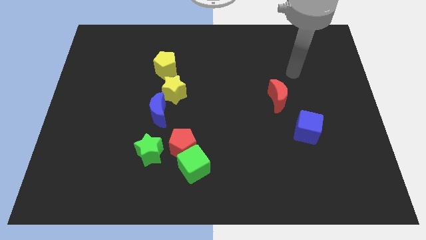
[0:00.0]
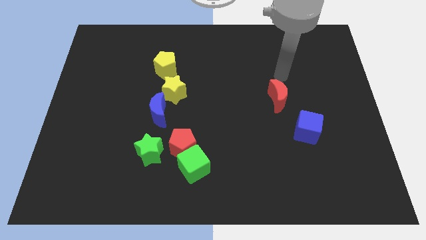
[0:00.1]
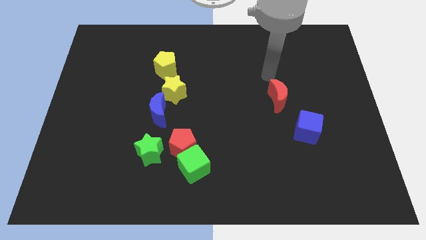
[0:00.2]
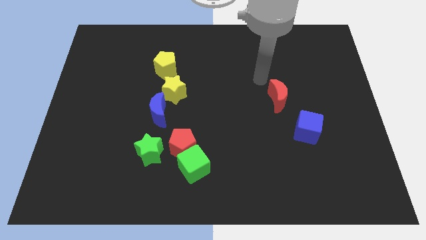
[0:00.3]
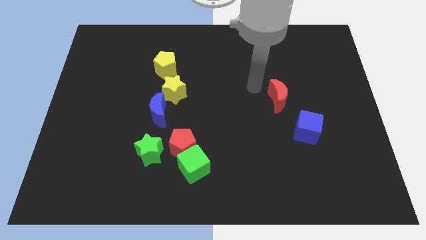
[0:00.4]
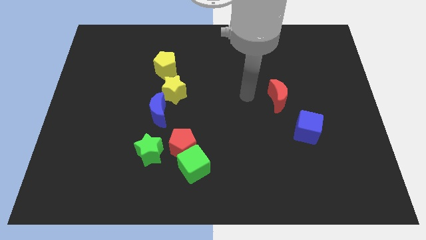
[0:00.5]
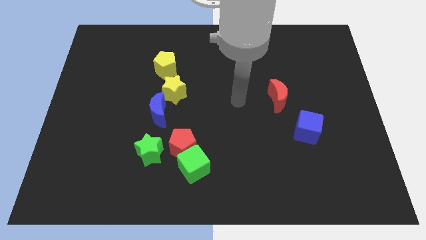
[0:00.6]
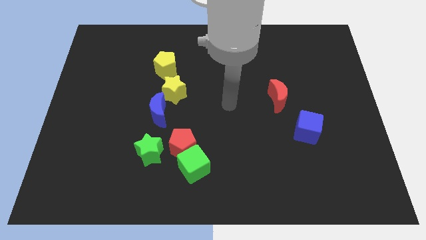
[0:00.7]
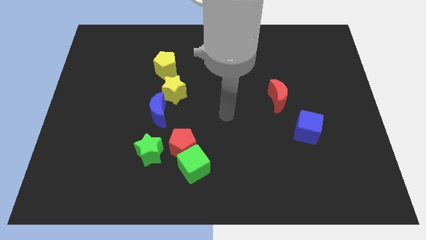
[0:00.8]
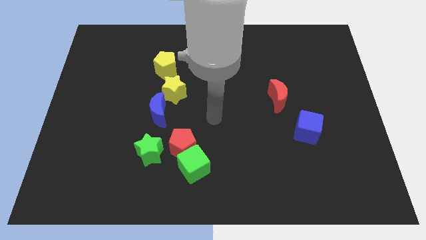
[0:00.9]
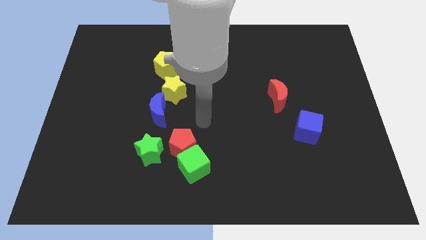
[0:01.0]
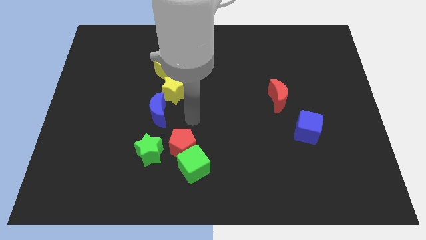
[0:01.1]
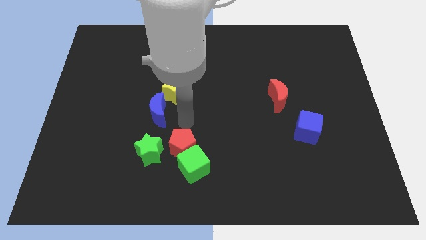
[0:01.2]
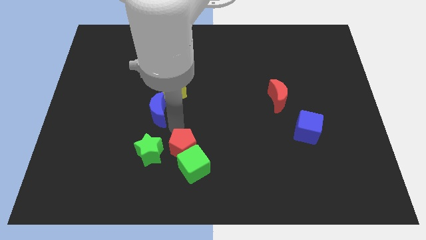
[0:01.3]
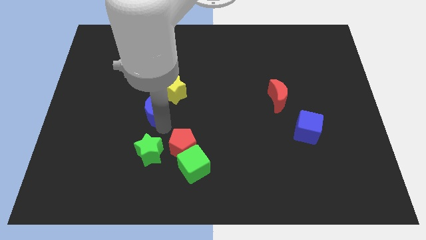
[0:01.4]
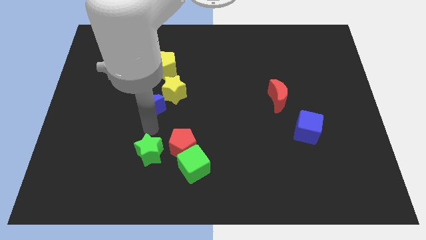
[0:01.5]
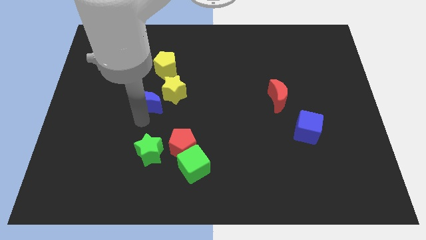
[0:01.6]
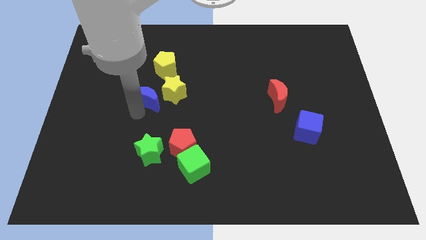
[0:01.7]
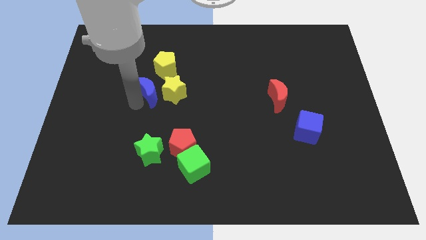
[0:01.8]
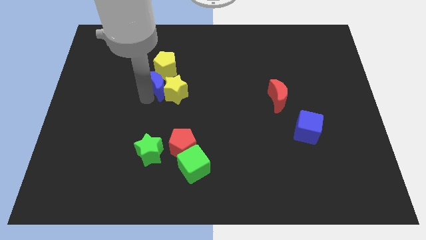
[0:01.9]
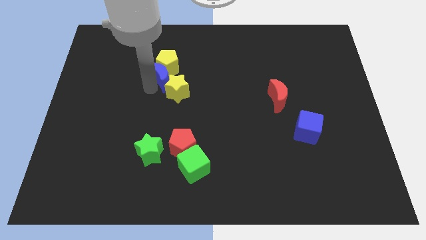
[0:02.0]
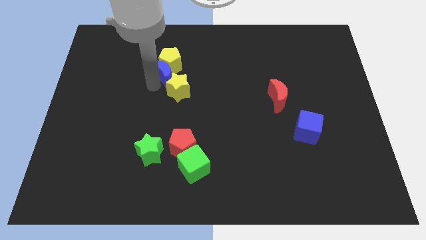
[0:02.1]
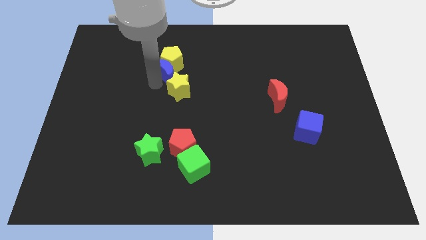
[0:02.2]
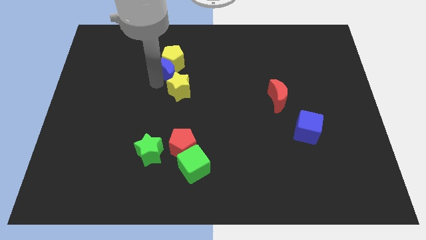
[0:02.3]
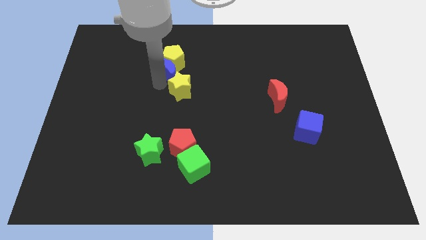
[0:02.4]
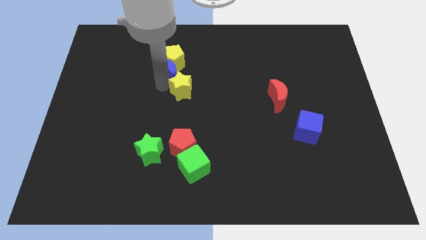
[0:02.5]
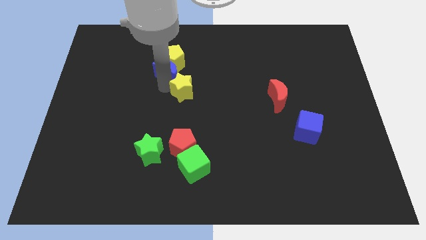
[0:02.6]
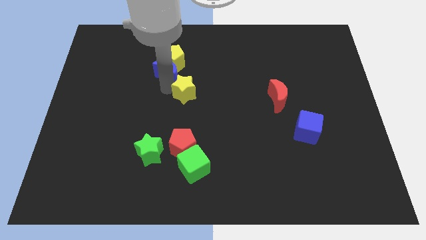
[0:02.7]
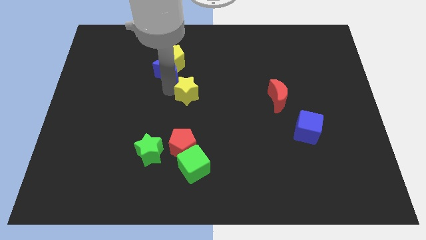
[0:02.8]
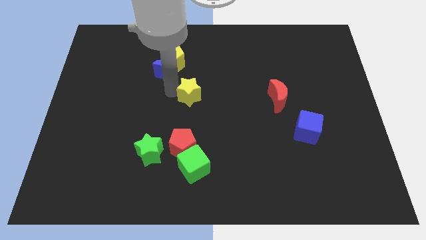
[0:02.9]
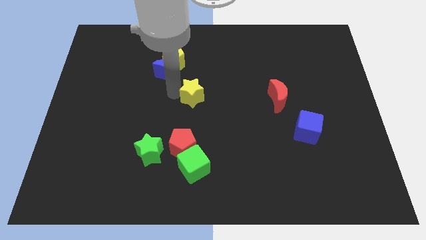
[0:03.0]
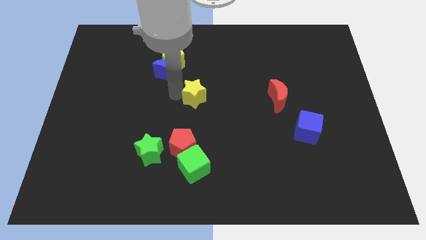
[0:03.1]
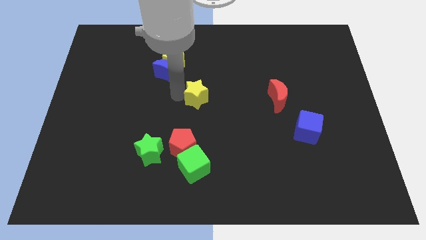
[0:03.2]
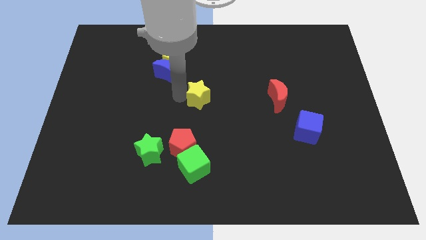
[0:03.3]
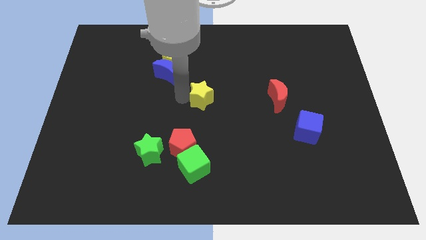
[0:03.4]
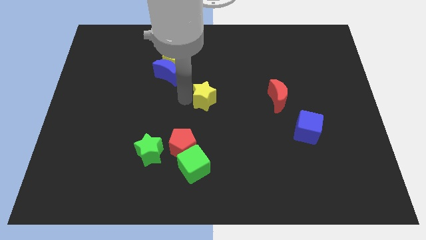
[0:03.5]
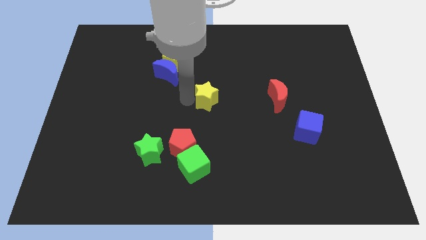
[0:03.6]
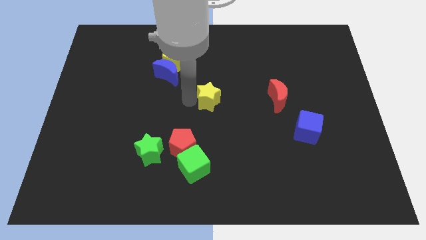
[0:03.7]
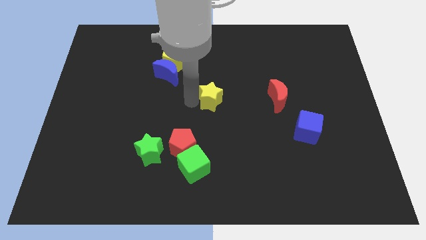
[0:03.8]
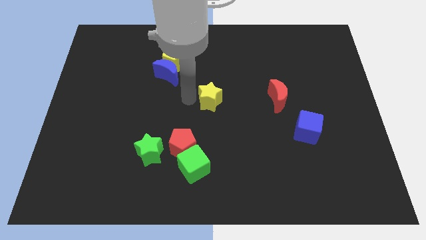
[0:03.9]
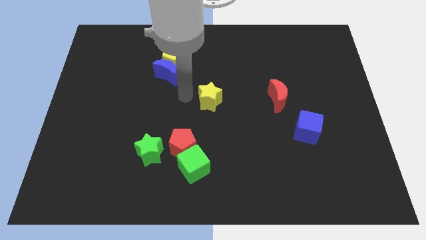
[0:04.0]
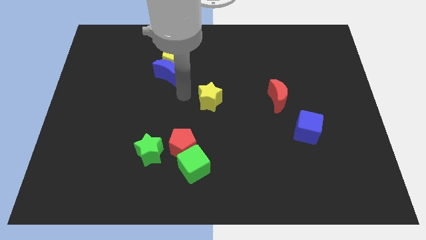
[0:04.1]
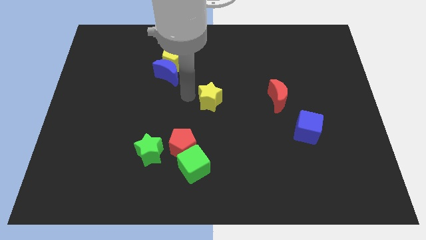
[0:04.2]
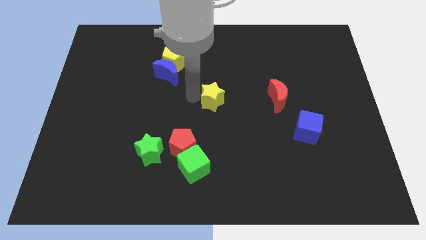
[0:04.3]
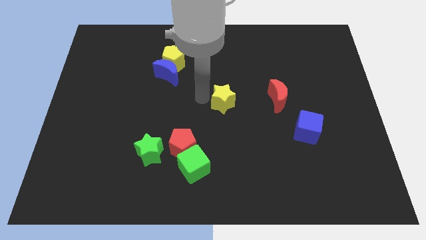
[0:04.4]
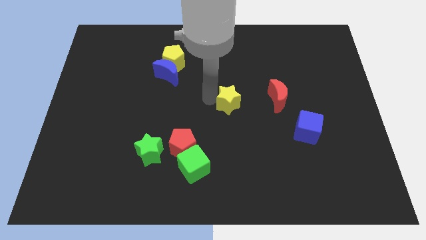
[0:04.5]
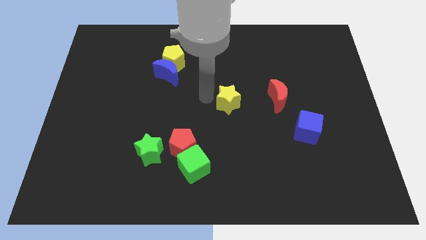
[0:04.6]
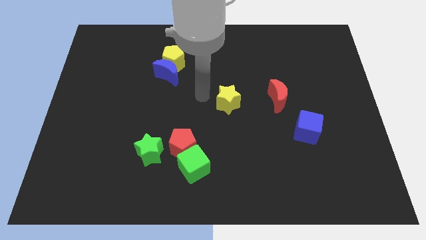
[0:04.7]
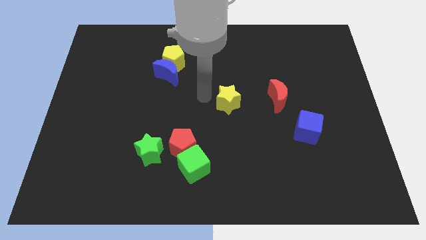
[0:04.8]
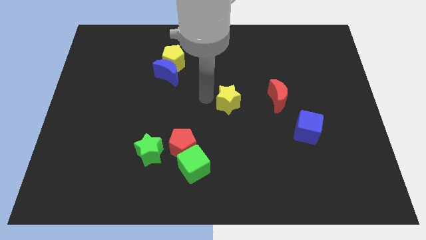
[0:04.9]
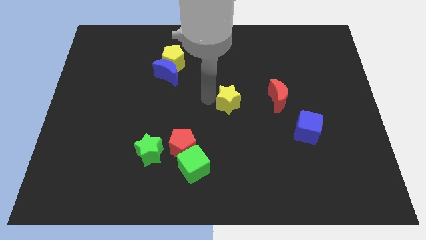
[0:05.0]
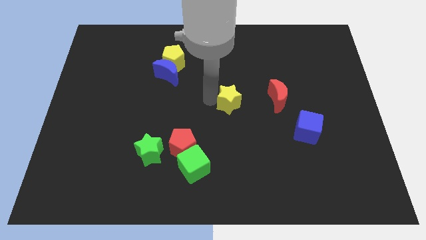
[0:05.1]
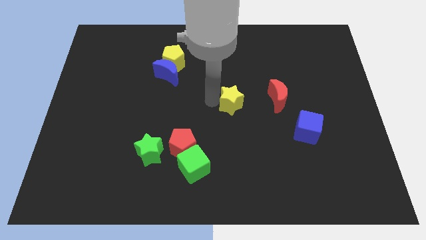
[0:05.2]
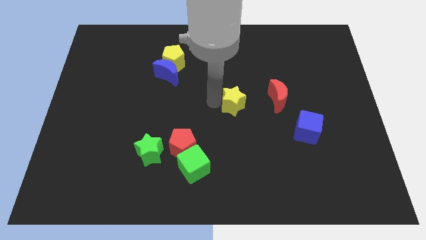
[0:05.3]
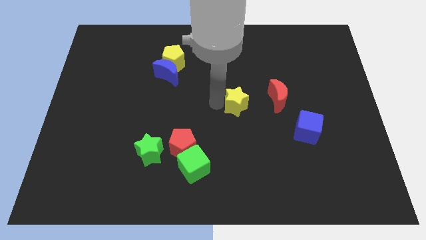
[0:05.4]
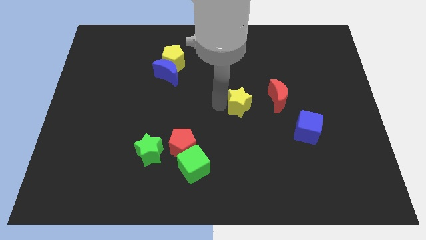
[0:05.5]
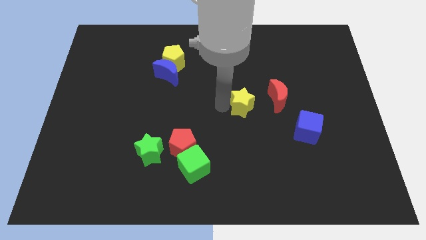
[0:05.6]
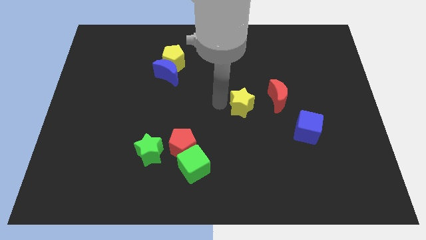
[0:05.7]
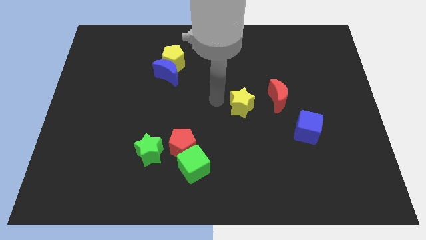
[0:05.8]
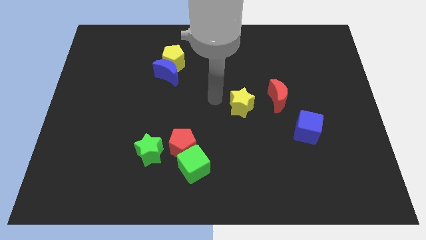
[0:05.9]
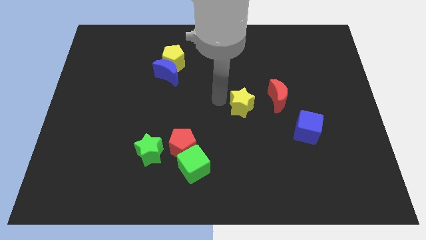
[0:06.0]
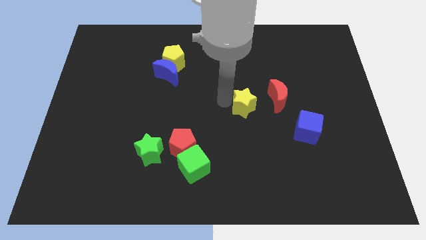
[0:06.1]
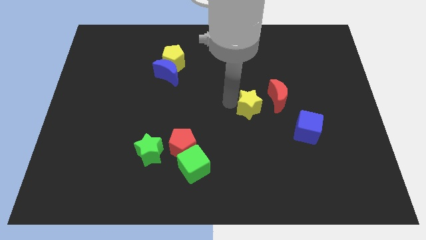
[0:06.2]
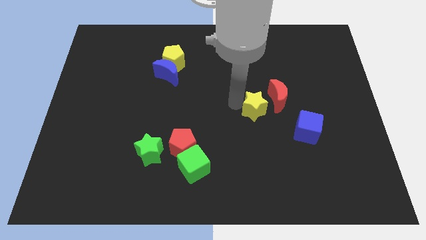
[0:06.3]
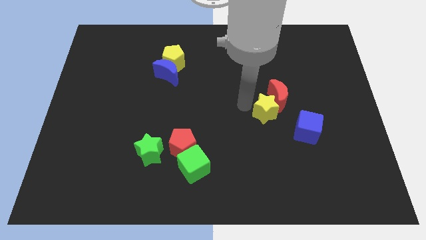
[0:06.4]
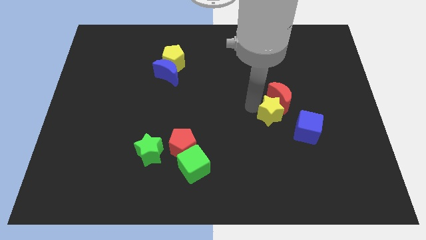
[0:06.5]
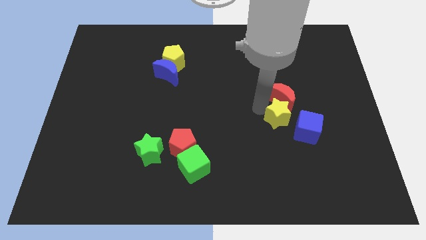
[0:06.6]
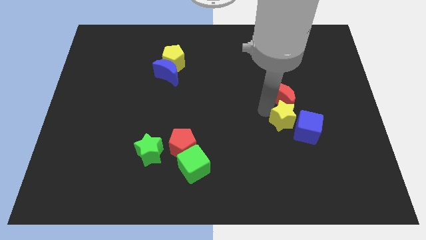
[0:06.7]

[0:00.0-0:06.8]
push the yellow star next to the blue cube

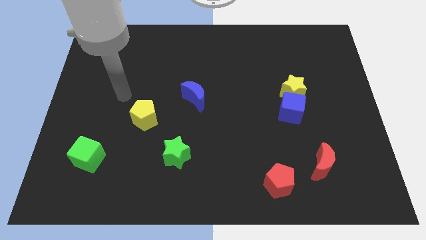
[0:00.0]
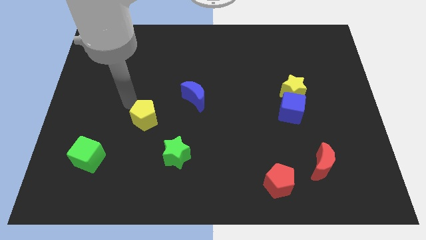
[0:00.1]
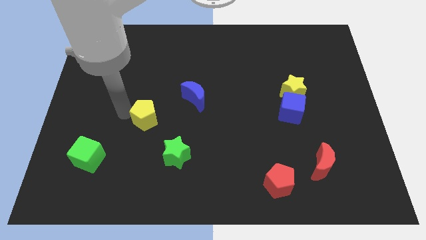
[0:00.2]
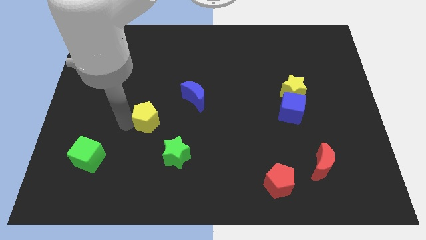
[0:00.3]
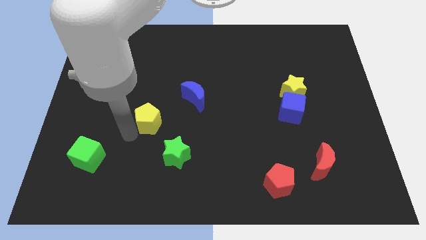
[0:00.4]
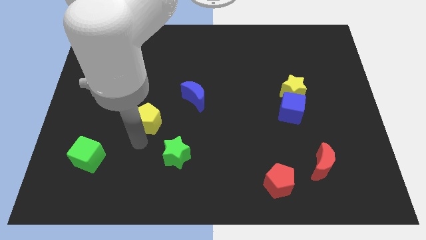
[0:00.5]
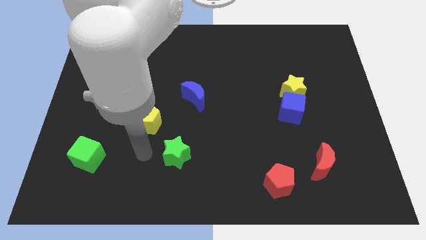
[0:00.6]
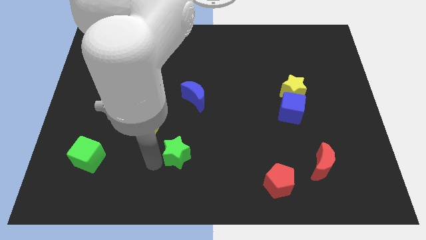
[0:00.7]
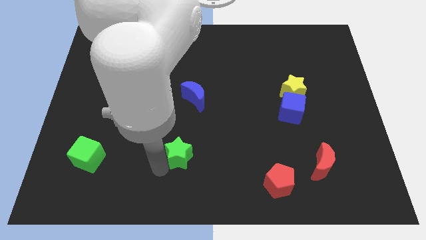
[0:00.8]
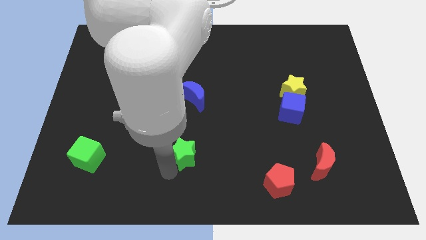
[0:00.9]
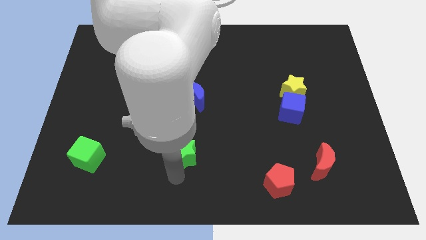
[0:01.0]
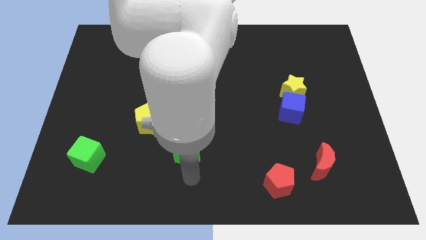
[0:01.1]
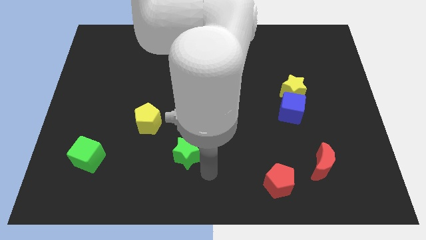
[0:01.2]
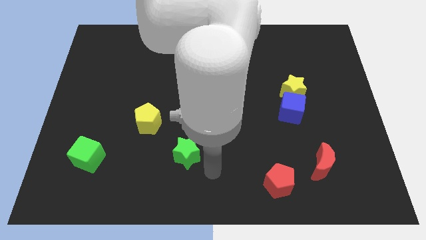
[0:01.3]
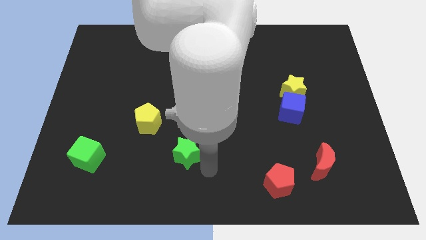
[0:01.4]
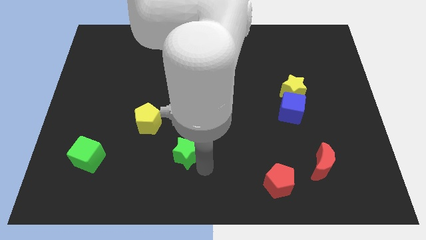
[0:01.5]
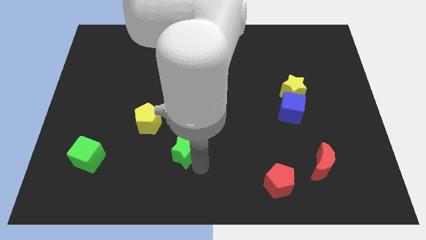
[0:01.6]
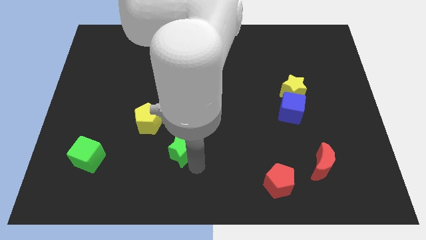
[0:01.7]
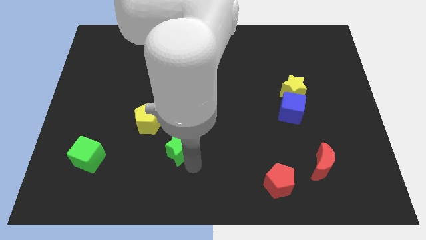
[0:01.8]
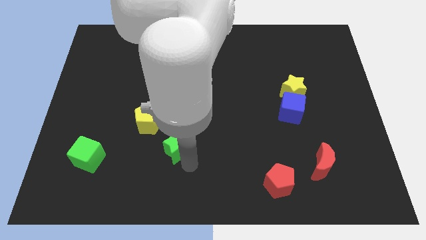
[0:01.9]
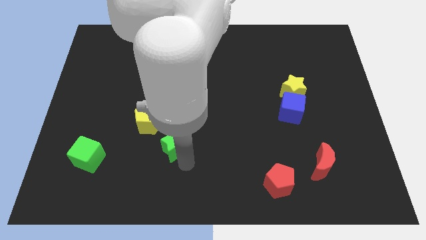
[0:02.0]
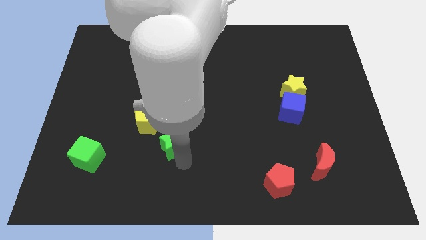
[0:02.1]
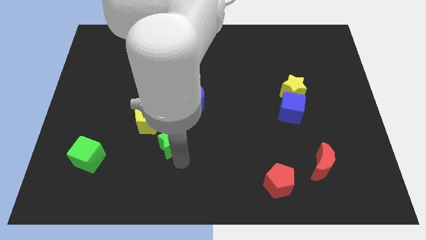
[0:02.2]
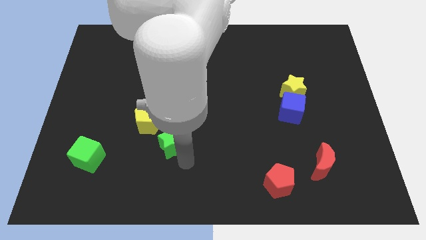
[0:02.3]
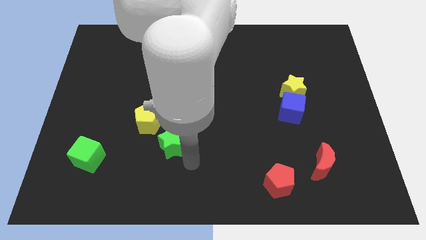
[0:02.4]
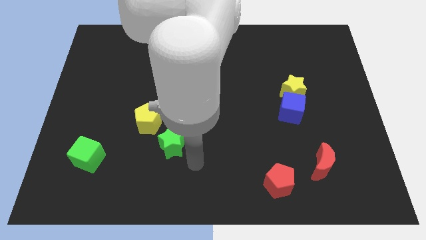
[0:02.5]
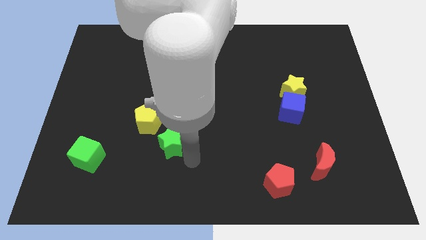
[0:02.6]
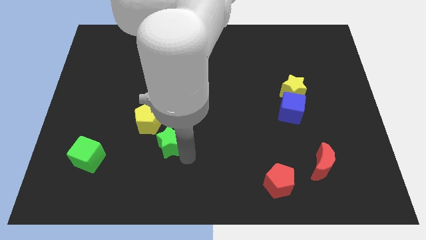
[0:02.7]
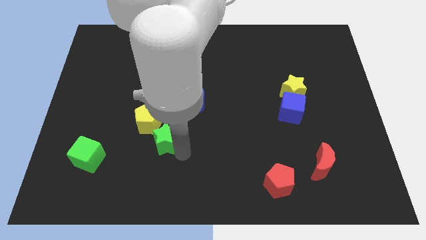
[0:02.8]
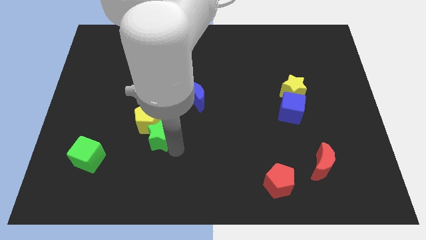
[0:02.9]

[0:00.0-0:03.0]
push the green star to the yellow pentagon
